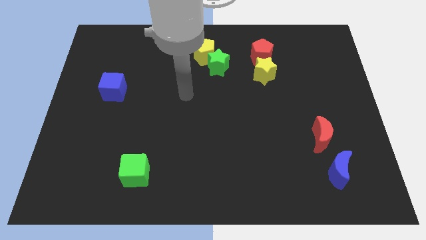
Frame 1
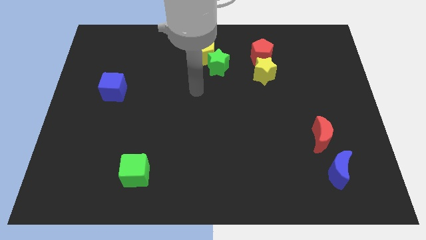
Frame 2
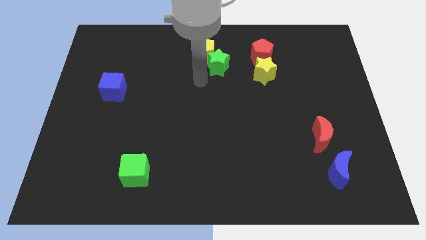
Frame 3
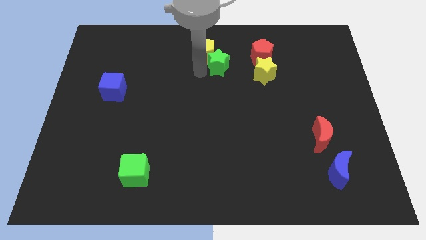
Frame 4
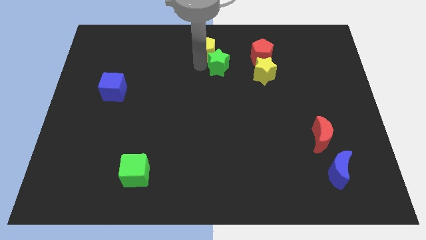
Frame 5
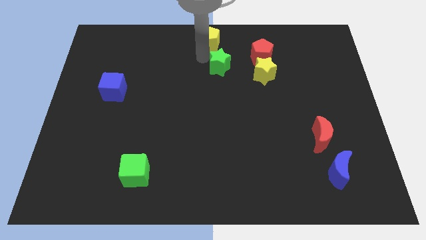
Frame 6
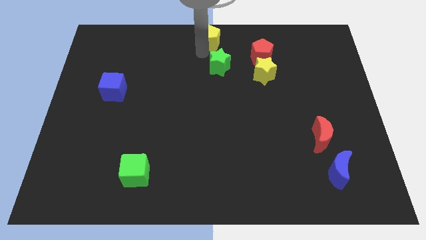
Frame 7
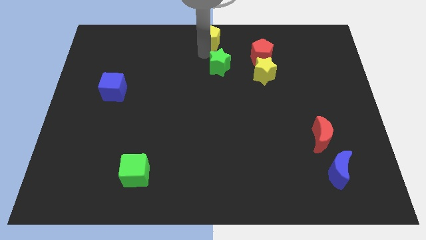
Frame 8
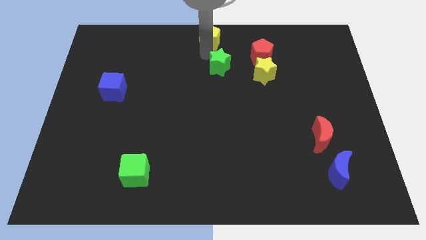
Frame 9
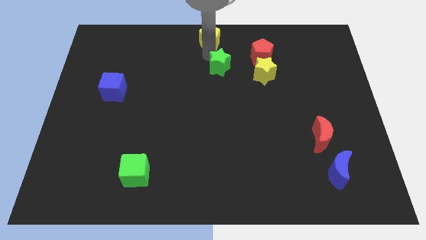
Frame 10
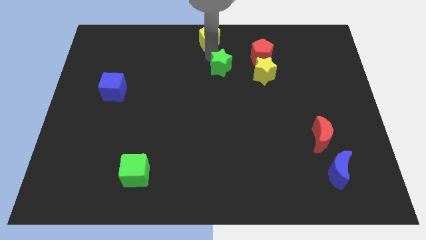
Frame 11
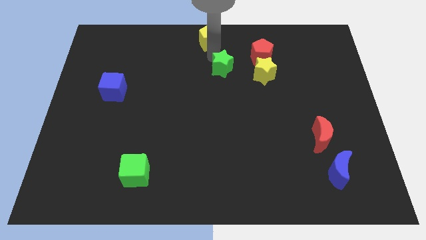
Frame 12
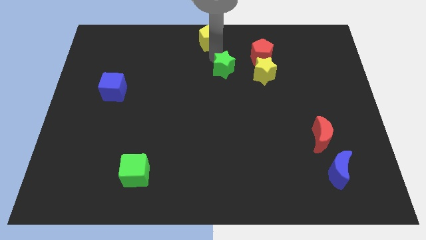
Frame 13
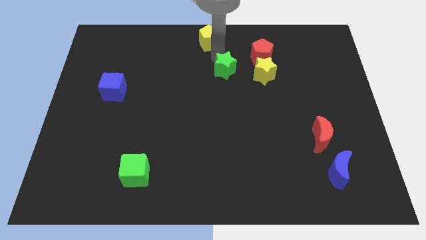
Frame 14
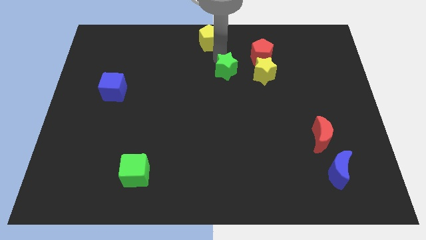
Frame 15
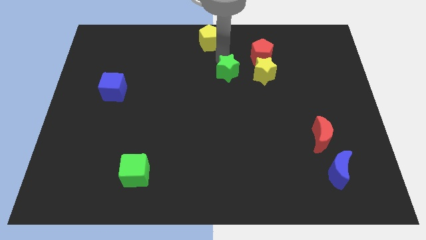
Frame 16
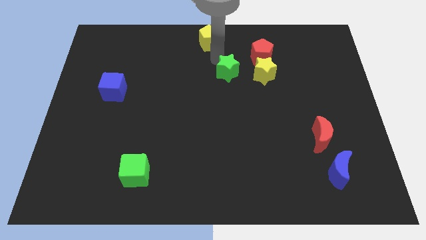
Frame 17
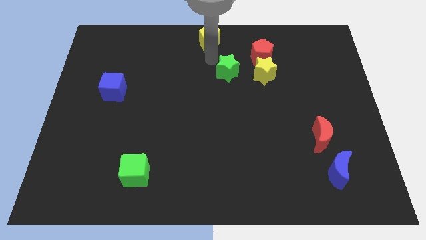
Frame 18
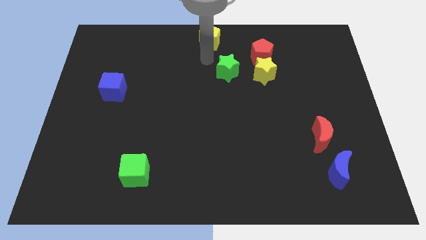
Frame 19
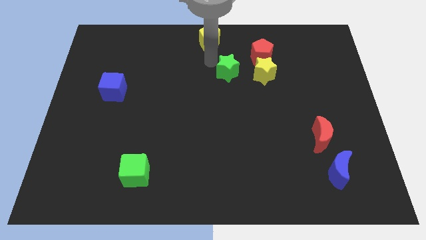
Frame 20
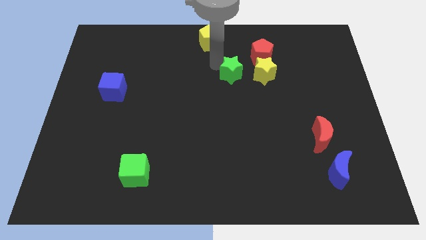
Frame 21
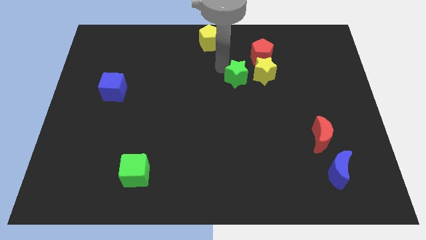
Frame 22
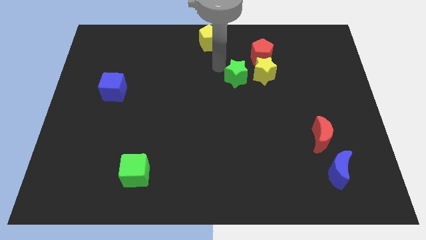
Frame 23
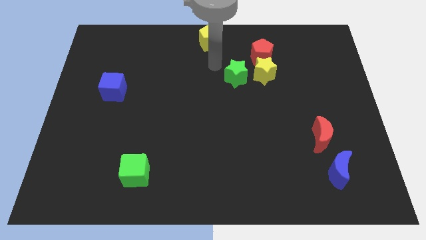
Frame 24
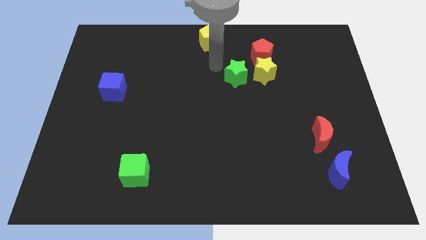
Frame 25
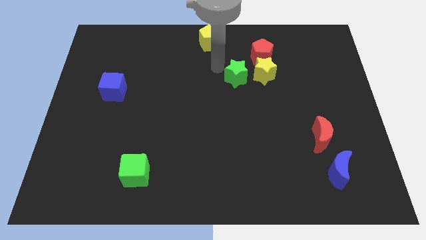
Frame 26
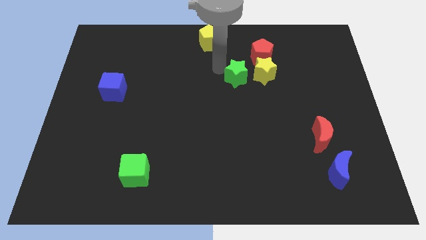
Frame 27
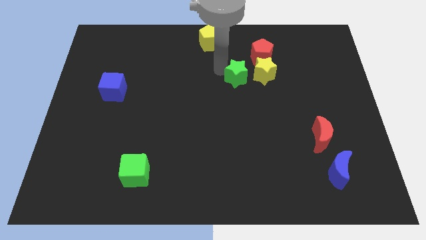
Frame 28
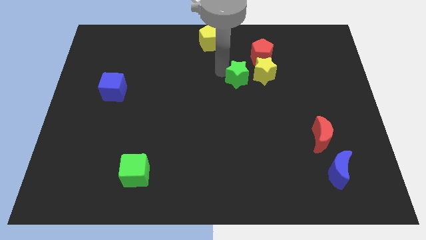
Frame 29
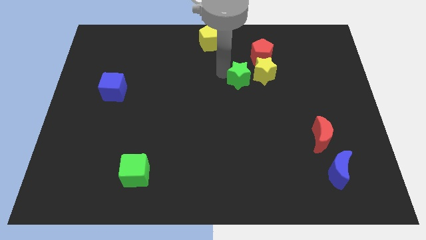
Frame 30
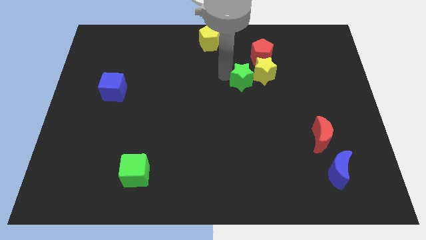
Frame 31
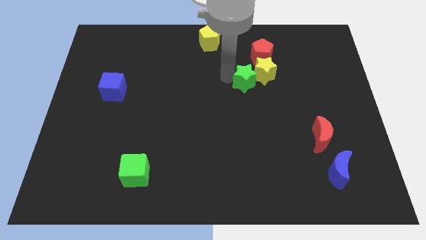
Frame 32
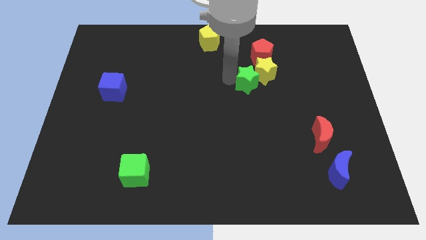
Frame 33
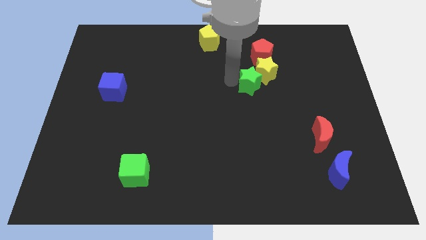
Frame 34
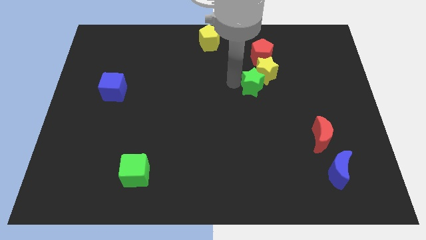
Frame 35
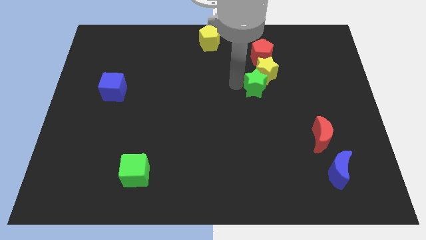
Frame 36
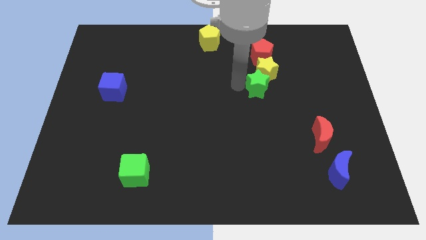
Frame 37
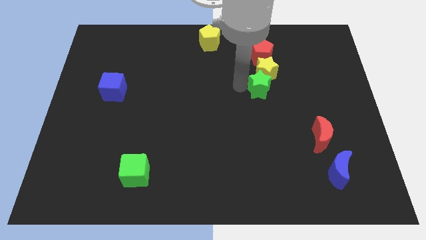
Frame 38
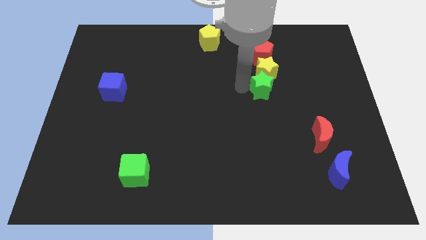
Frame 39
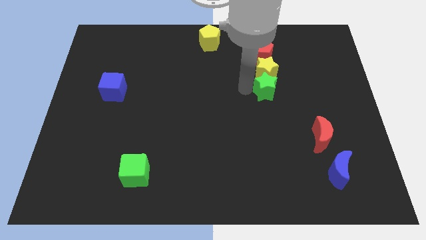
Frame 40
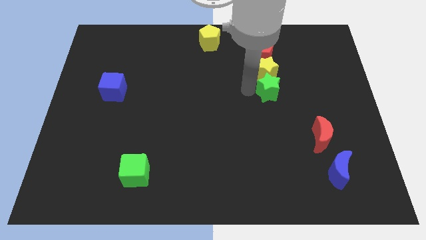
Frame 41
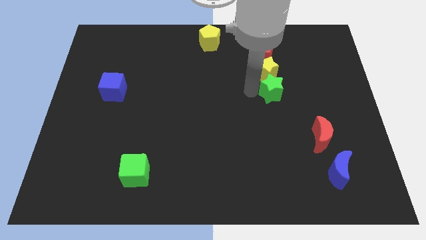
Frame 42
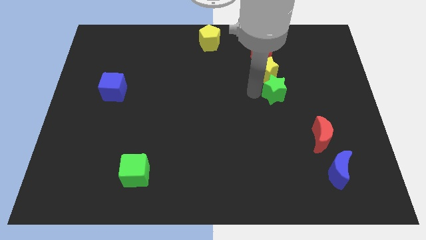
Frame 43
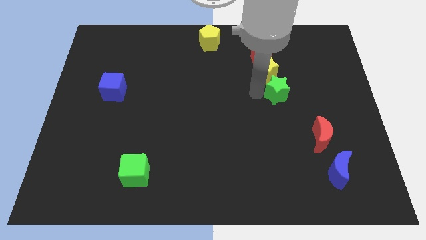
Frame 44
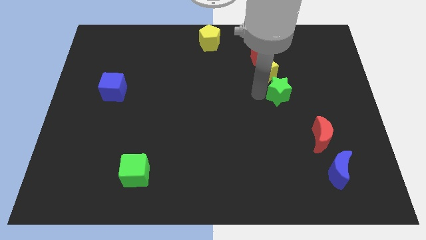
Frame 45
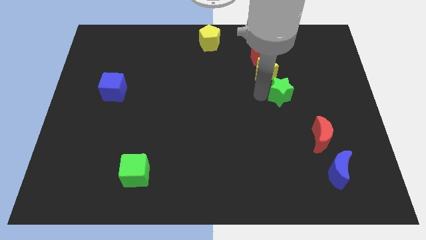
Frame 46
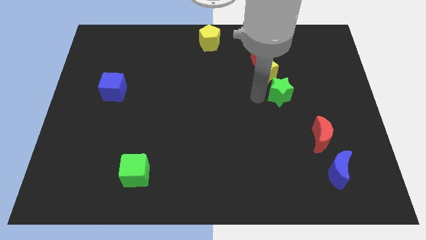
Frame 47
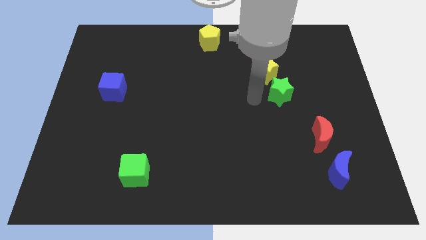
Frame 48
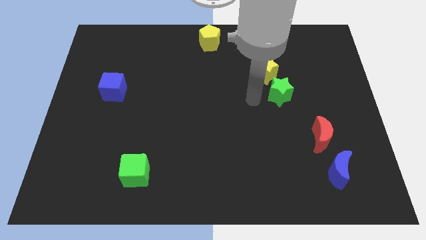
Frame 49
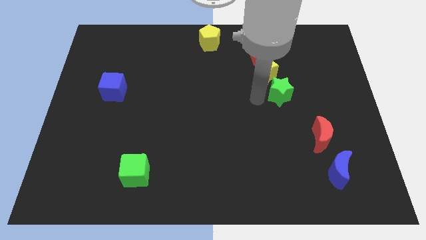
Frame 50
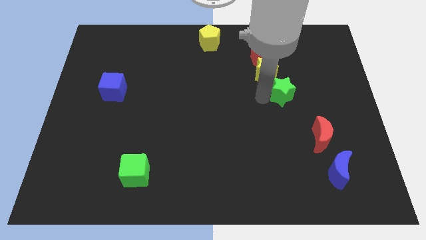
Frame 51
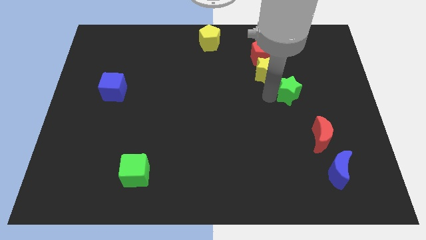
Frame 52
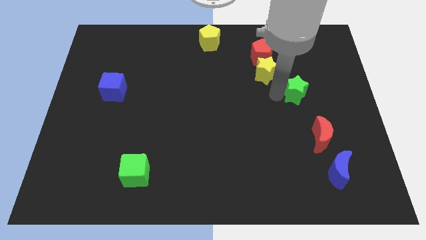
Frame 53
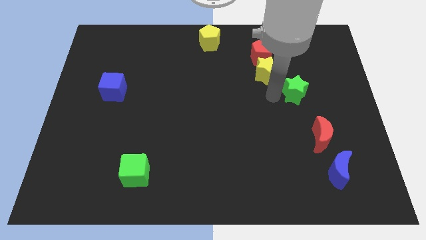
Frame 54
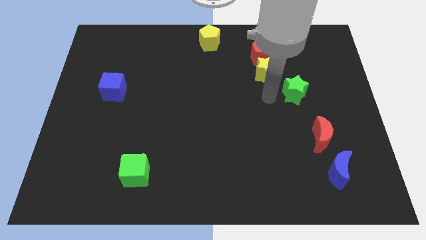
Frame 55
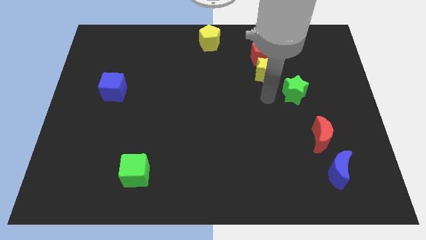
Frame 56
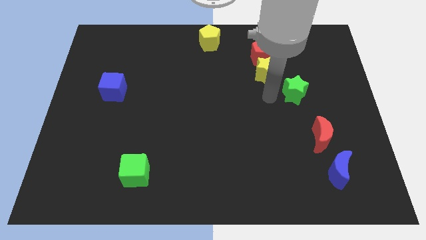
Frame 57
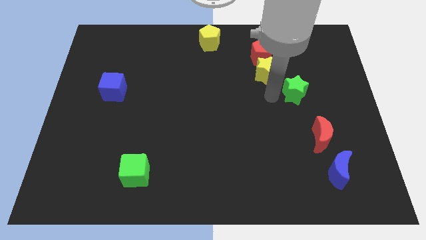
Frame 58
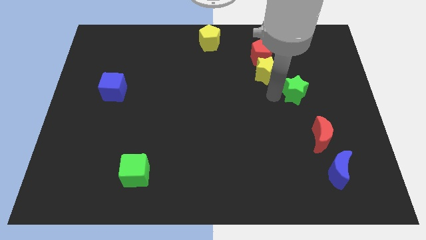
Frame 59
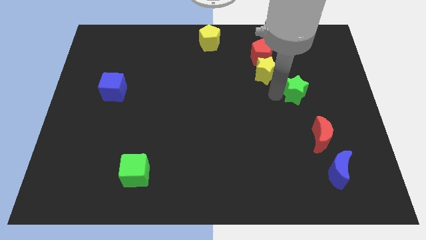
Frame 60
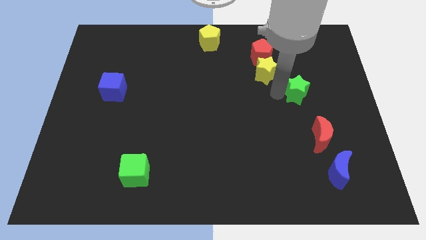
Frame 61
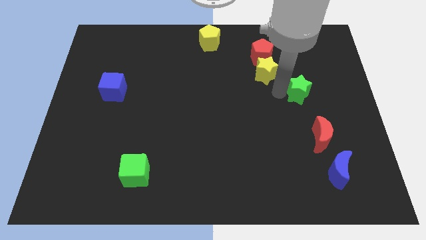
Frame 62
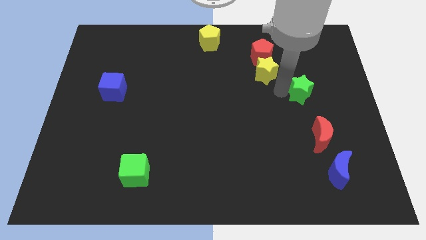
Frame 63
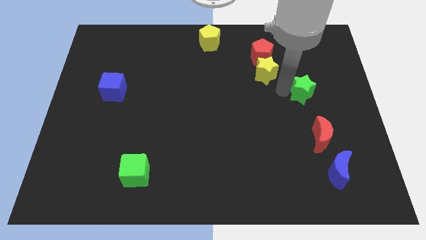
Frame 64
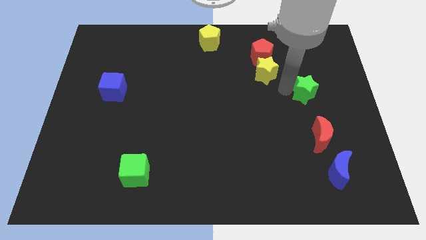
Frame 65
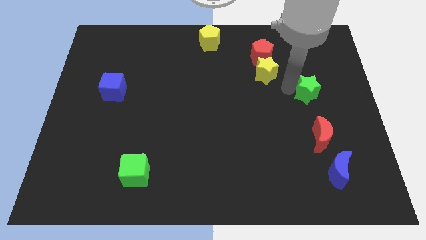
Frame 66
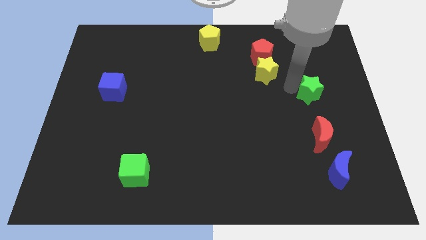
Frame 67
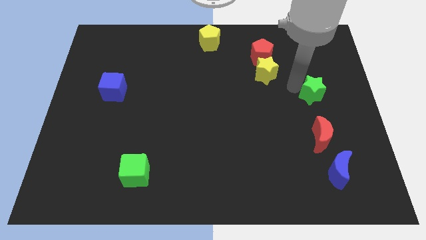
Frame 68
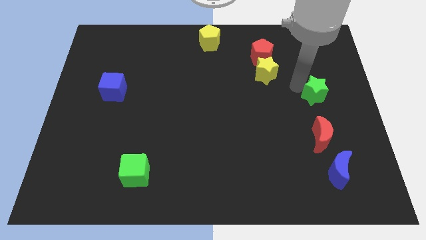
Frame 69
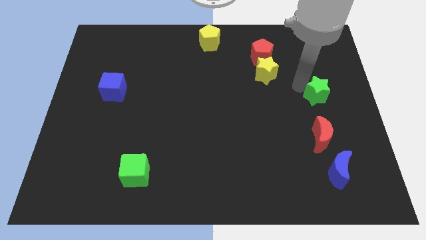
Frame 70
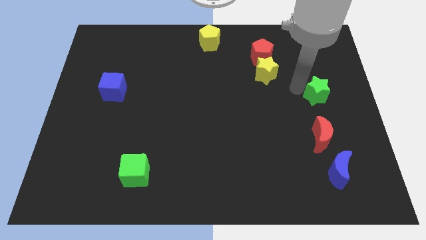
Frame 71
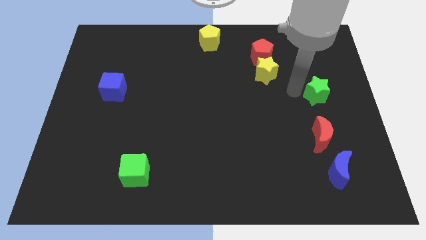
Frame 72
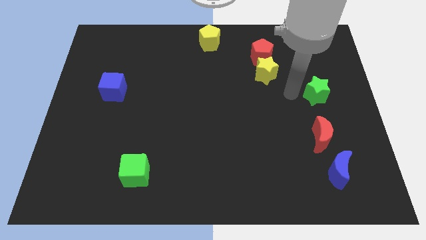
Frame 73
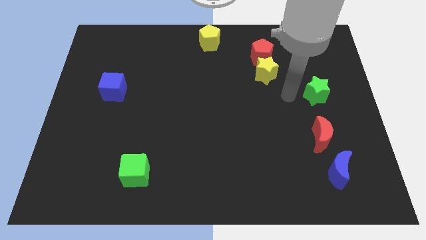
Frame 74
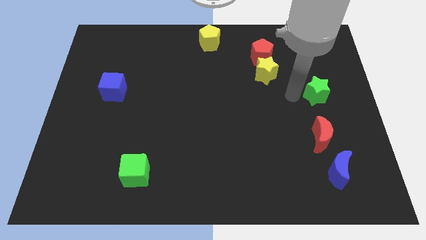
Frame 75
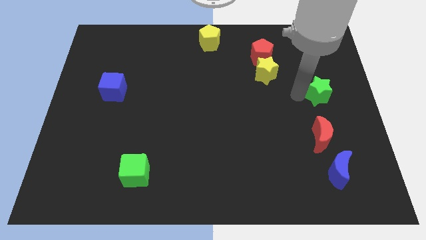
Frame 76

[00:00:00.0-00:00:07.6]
push the green star to the right side
